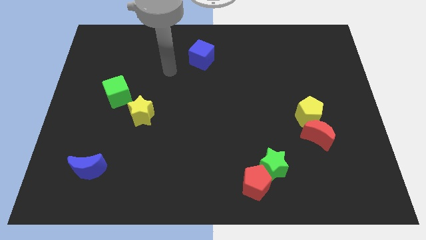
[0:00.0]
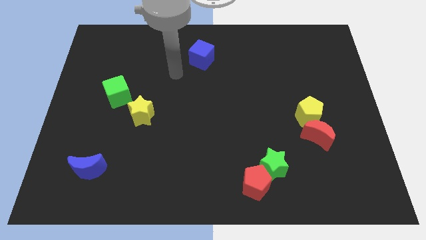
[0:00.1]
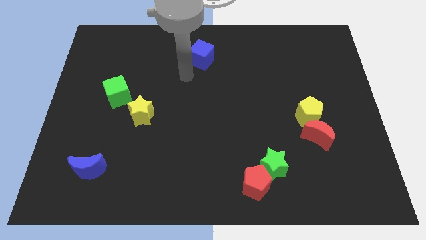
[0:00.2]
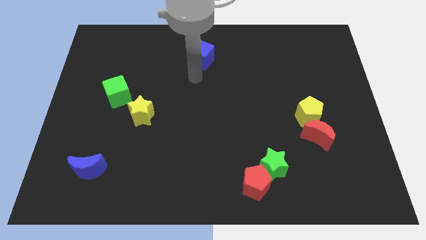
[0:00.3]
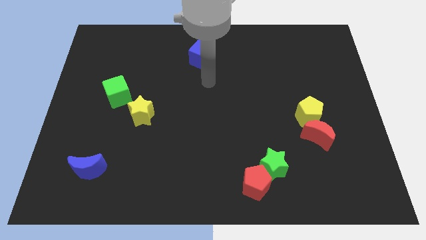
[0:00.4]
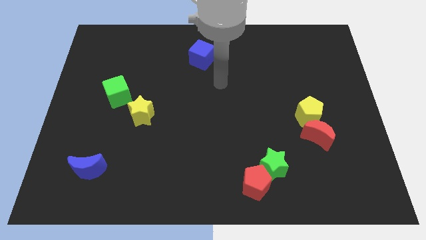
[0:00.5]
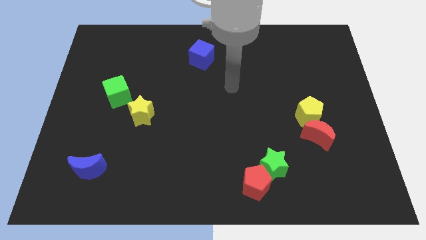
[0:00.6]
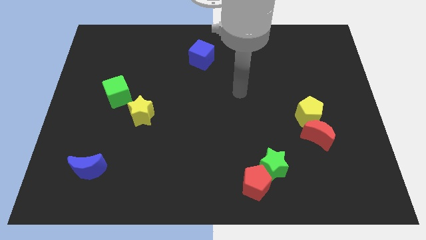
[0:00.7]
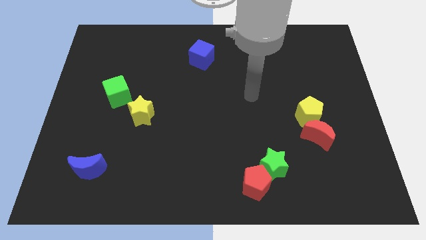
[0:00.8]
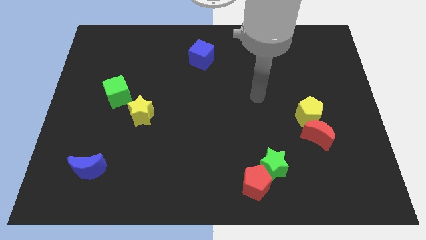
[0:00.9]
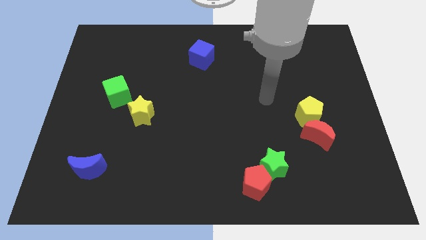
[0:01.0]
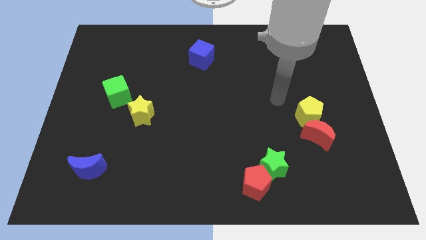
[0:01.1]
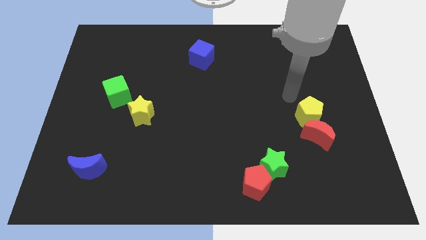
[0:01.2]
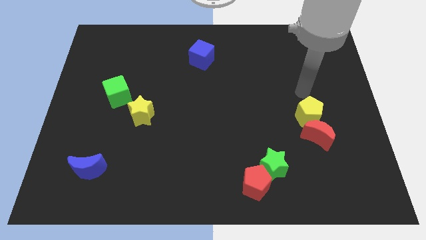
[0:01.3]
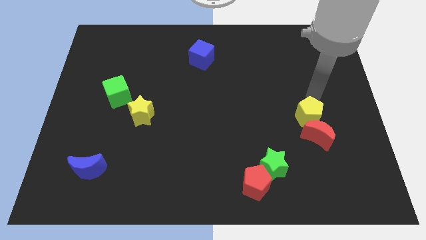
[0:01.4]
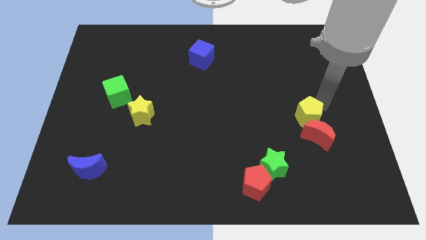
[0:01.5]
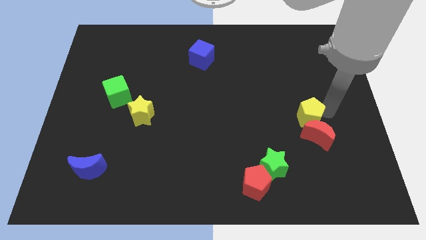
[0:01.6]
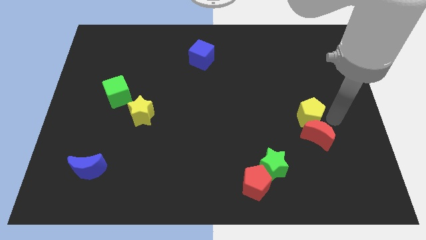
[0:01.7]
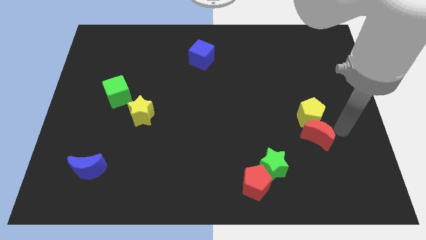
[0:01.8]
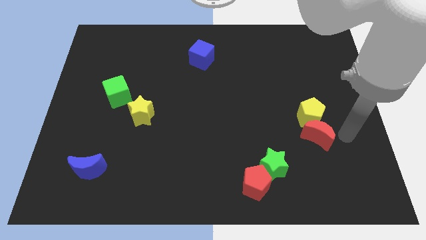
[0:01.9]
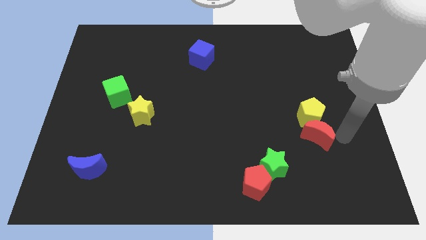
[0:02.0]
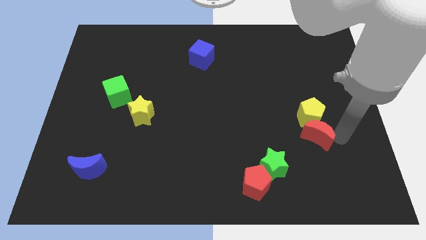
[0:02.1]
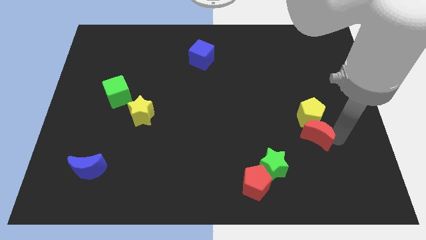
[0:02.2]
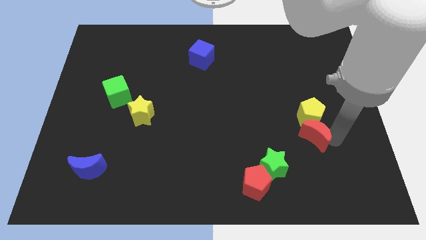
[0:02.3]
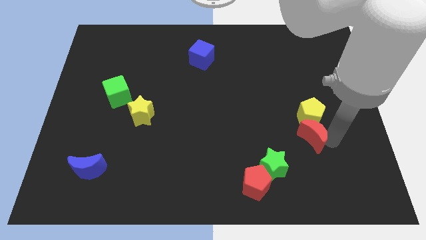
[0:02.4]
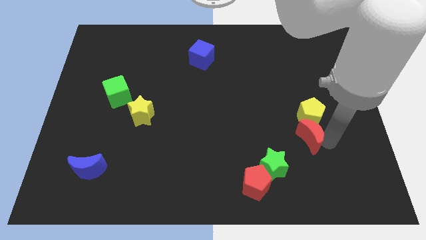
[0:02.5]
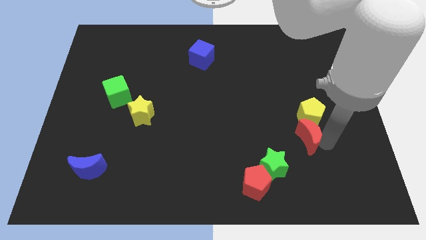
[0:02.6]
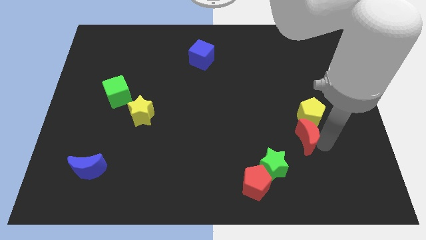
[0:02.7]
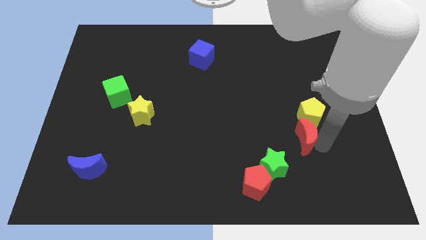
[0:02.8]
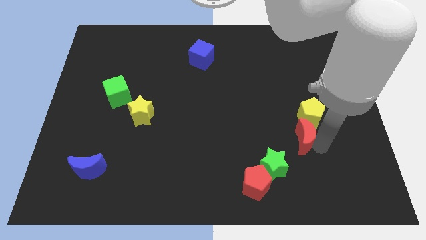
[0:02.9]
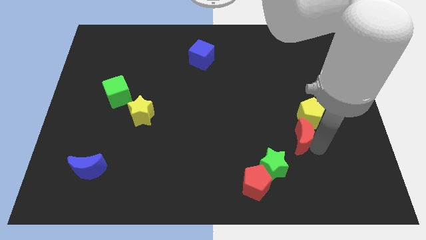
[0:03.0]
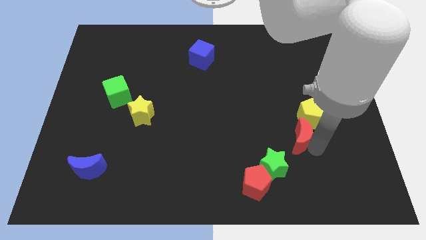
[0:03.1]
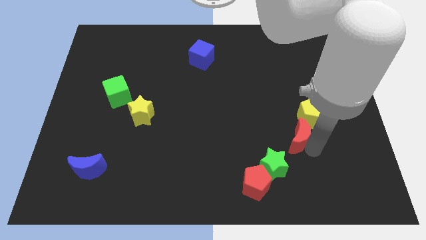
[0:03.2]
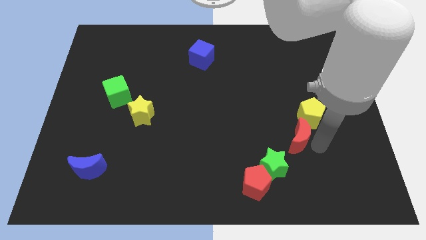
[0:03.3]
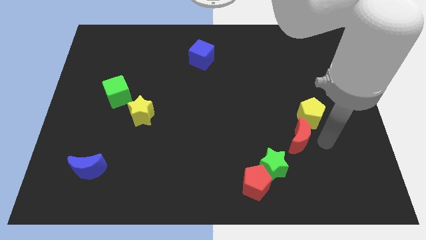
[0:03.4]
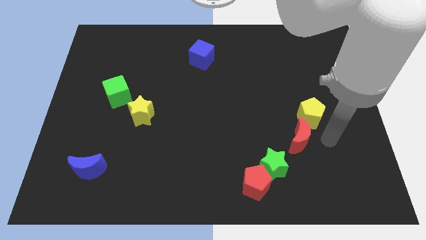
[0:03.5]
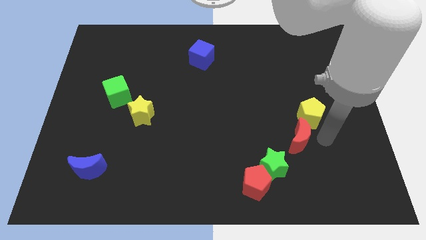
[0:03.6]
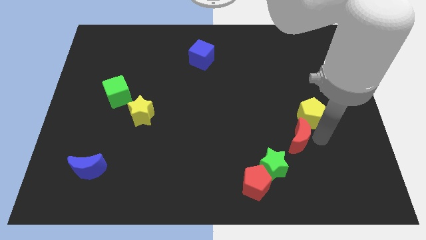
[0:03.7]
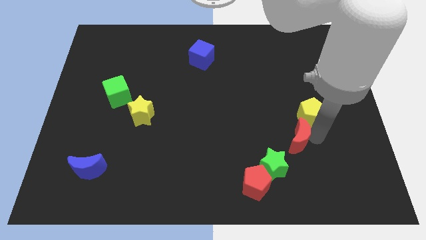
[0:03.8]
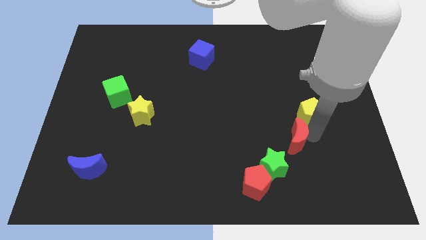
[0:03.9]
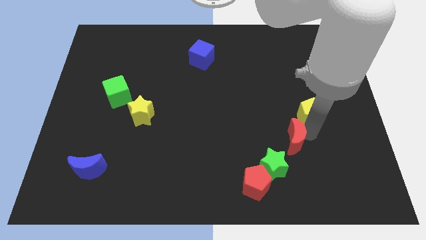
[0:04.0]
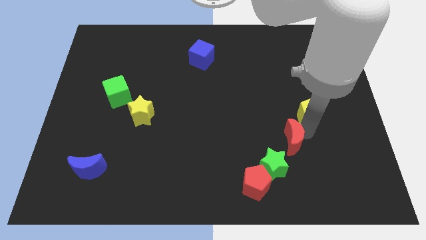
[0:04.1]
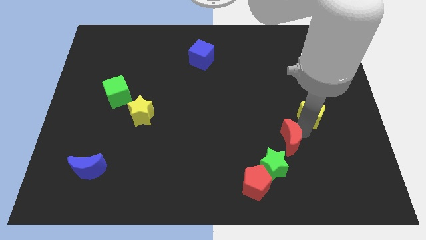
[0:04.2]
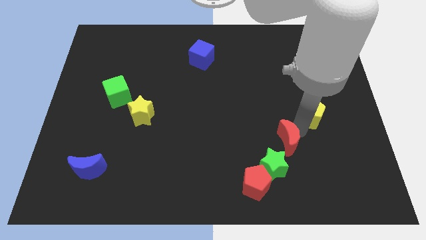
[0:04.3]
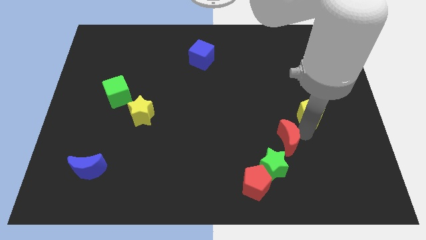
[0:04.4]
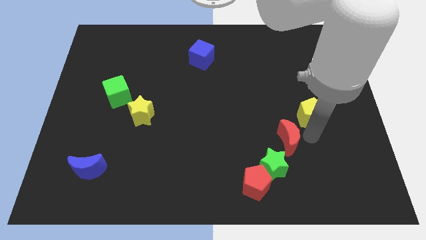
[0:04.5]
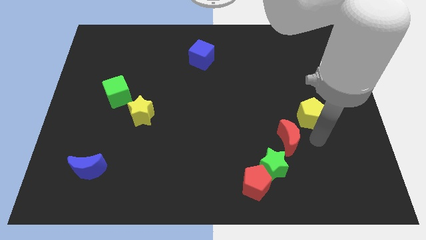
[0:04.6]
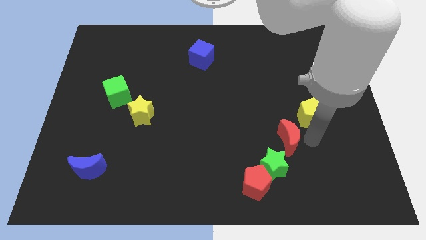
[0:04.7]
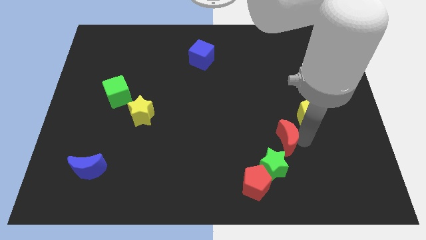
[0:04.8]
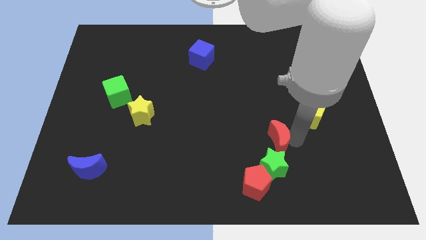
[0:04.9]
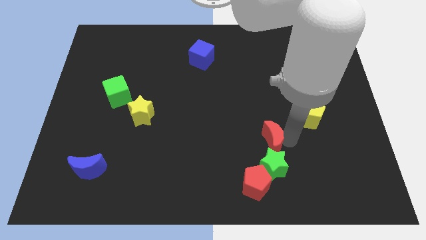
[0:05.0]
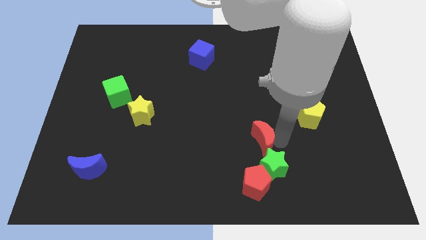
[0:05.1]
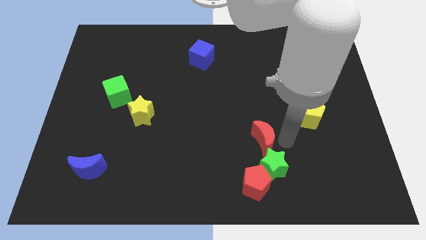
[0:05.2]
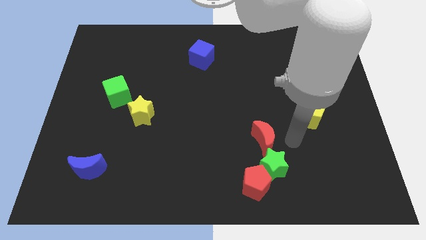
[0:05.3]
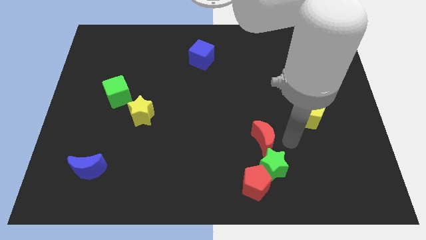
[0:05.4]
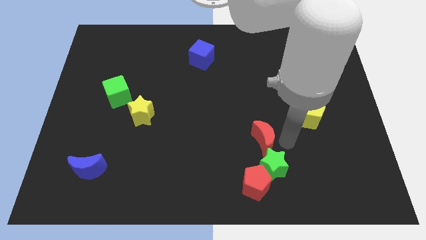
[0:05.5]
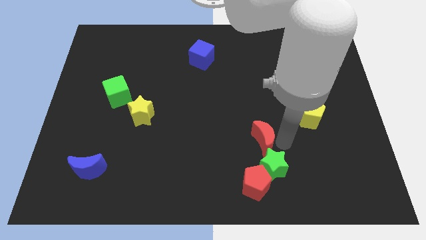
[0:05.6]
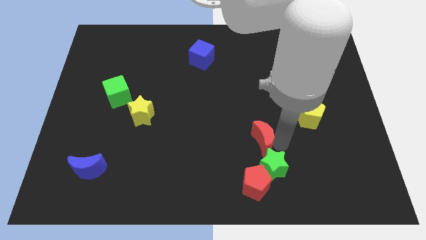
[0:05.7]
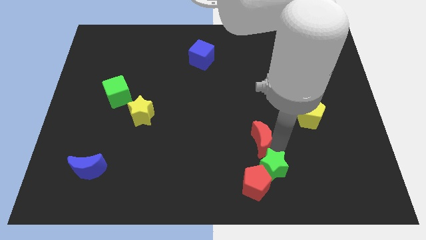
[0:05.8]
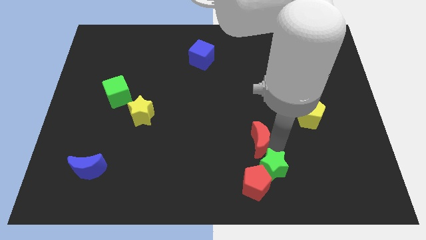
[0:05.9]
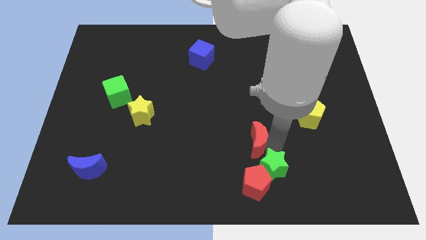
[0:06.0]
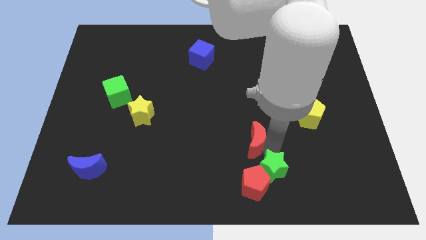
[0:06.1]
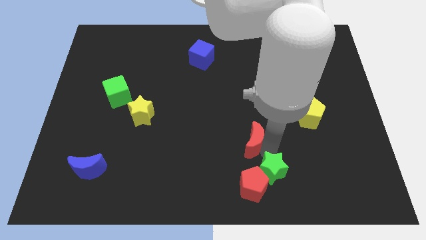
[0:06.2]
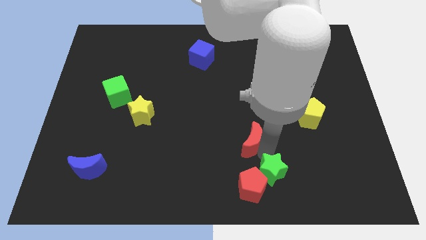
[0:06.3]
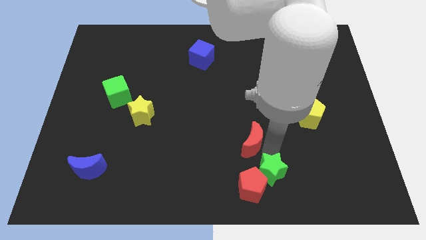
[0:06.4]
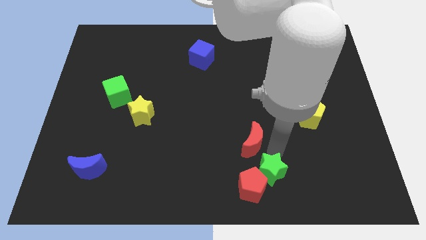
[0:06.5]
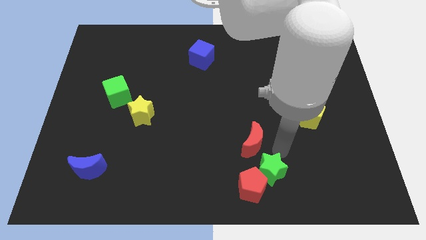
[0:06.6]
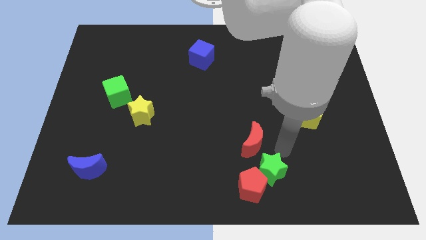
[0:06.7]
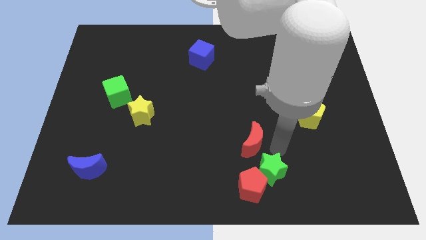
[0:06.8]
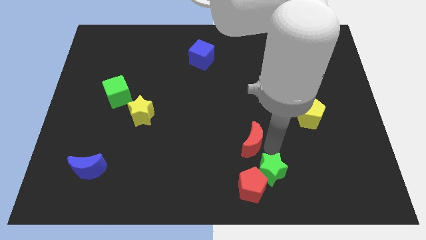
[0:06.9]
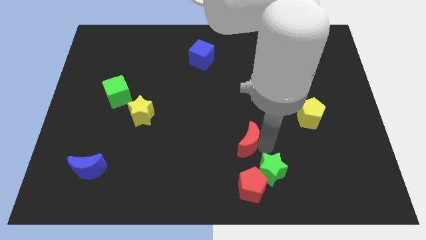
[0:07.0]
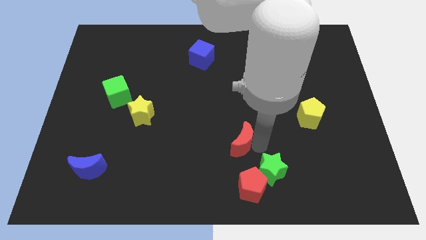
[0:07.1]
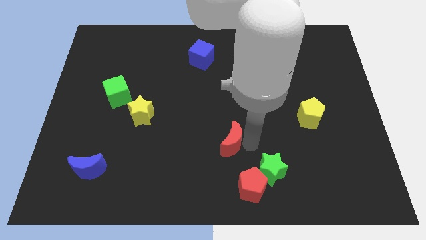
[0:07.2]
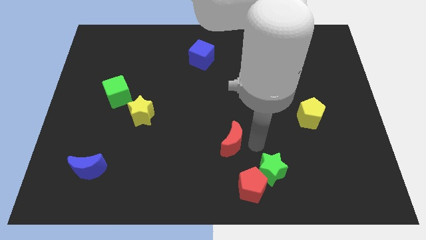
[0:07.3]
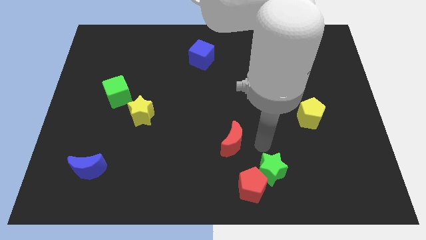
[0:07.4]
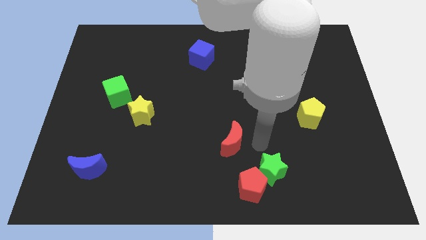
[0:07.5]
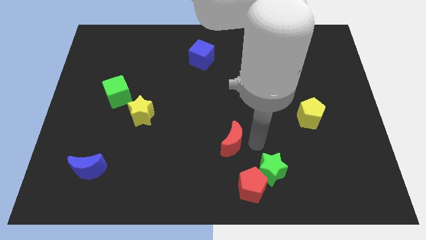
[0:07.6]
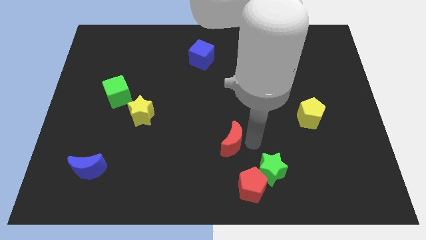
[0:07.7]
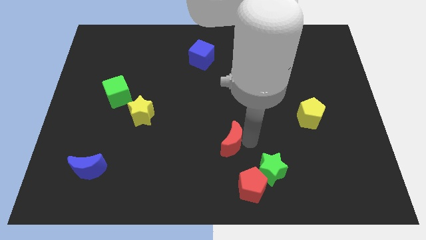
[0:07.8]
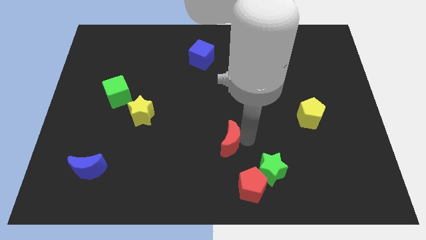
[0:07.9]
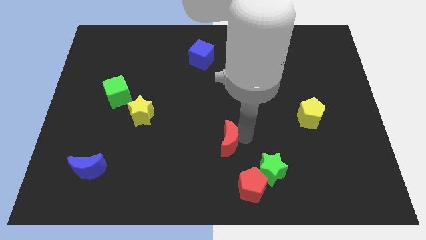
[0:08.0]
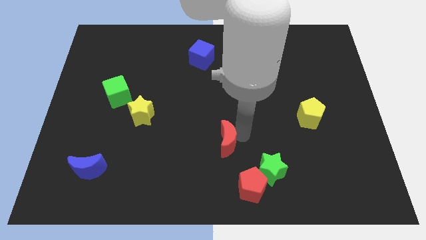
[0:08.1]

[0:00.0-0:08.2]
slide the red moon left
